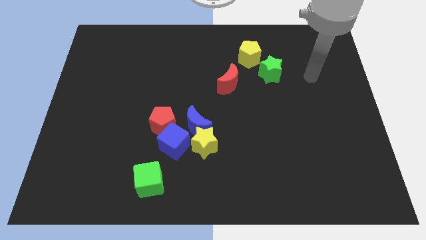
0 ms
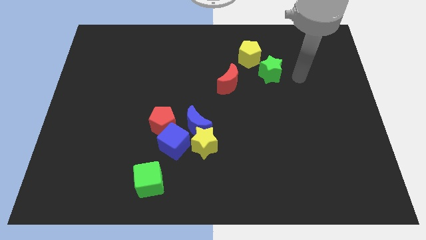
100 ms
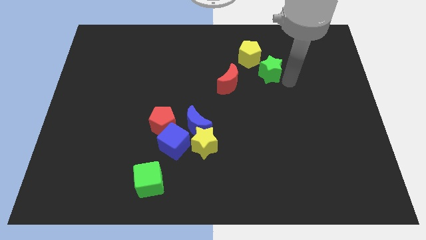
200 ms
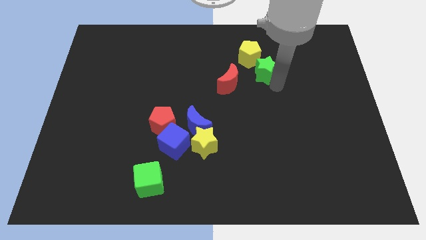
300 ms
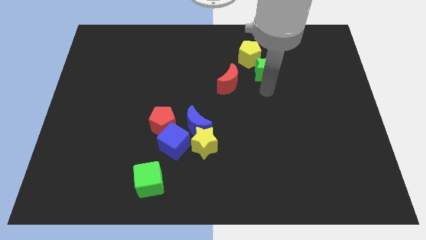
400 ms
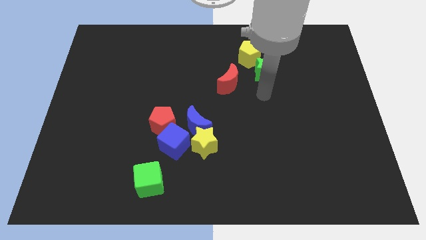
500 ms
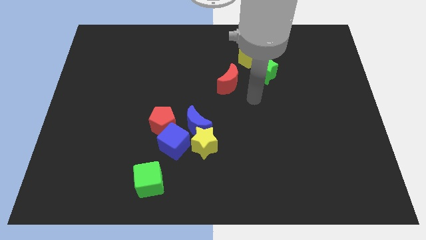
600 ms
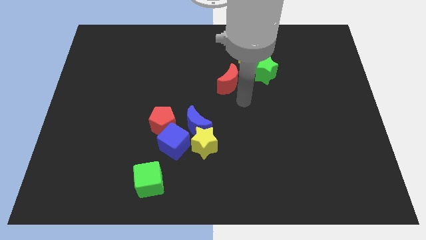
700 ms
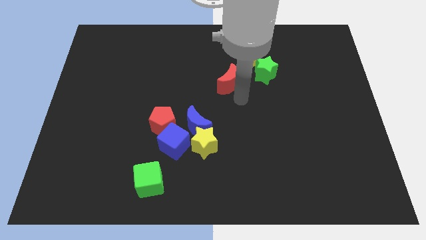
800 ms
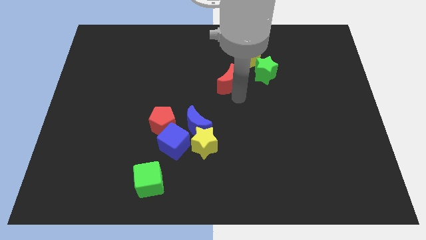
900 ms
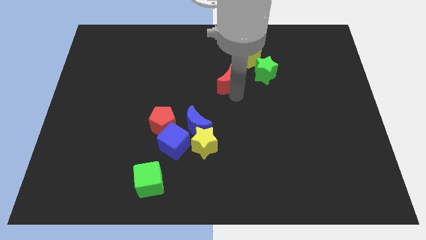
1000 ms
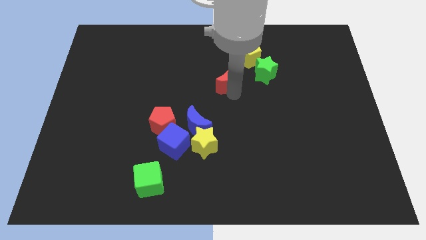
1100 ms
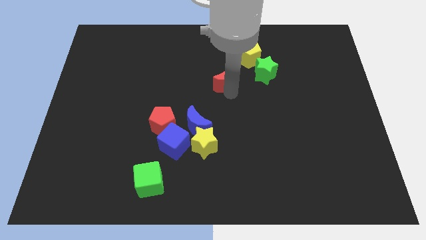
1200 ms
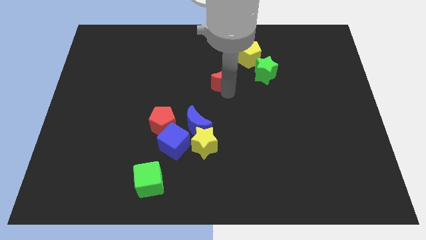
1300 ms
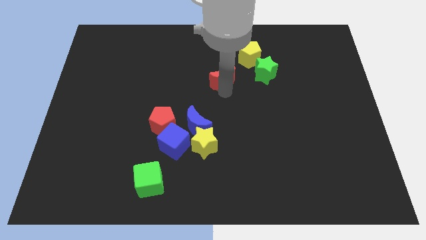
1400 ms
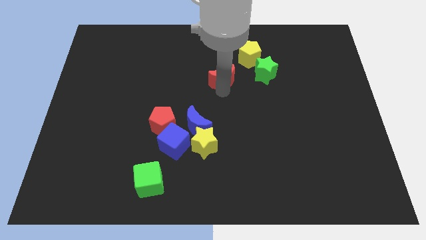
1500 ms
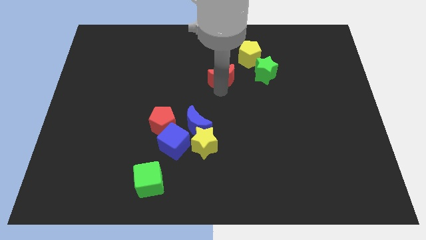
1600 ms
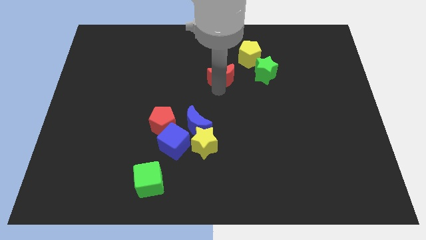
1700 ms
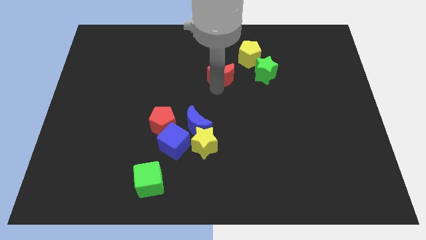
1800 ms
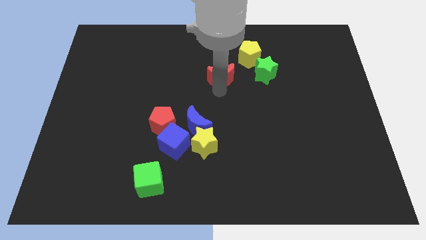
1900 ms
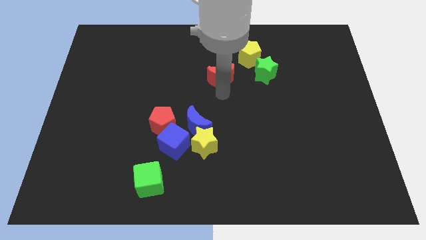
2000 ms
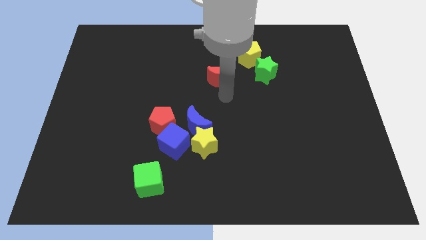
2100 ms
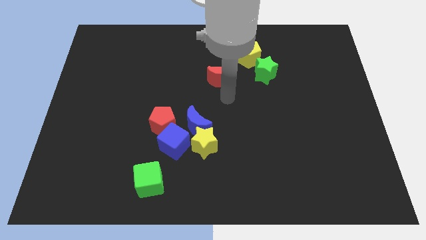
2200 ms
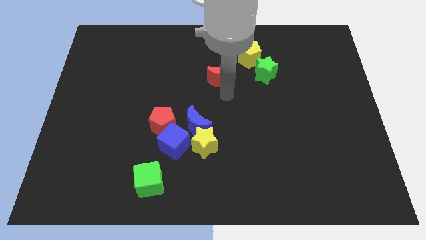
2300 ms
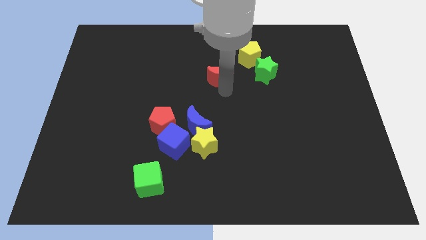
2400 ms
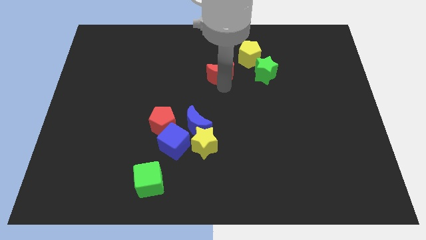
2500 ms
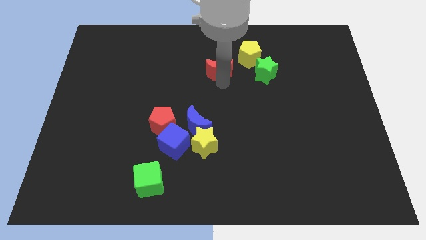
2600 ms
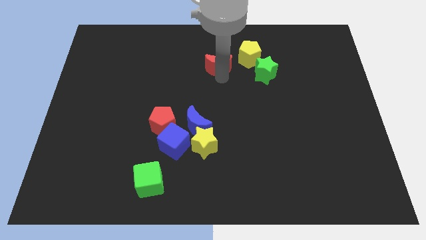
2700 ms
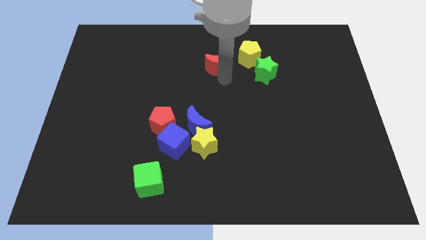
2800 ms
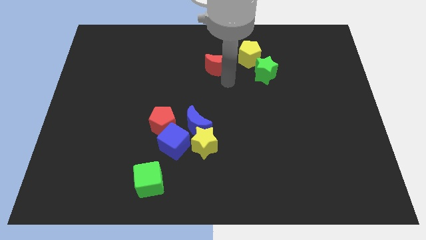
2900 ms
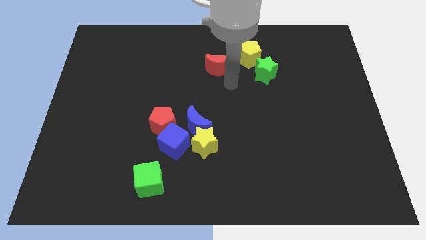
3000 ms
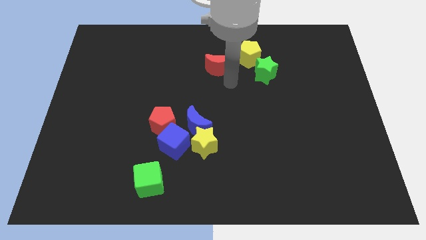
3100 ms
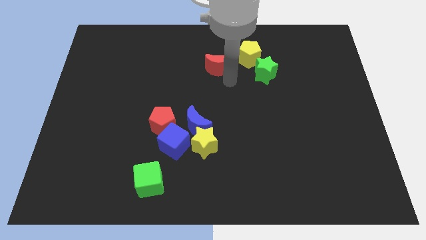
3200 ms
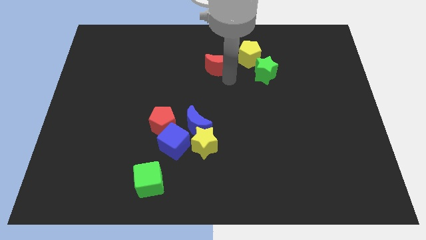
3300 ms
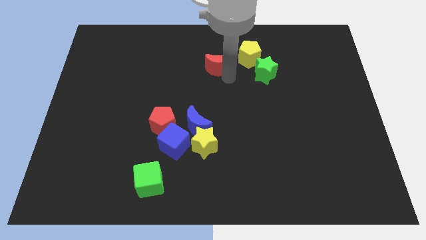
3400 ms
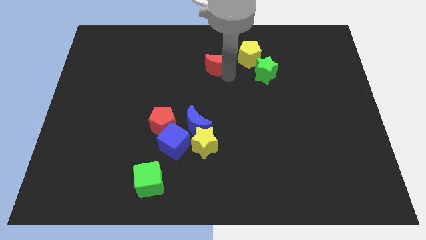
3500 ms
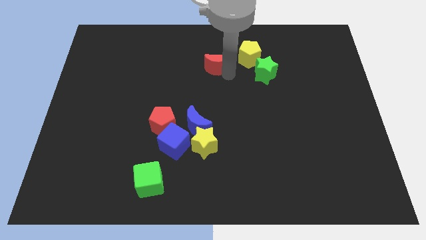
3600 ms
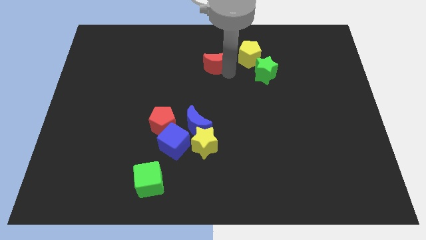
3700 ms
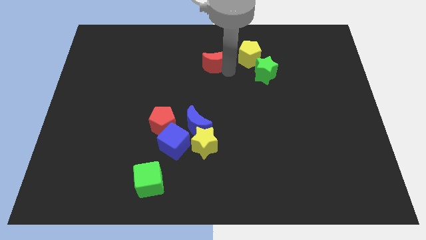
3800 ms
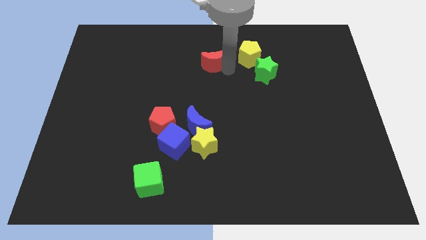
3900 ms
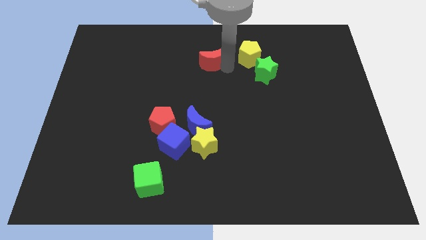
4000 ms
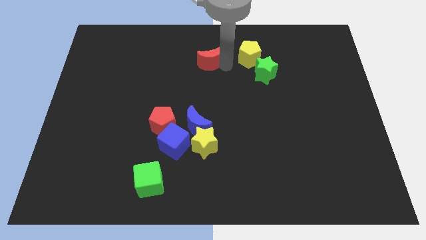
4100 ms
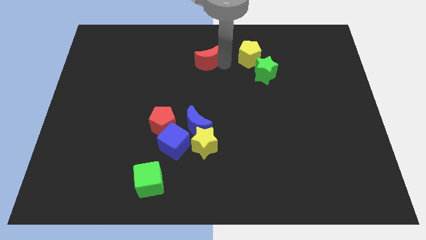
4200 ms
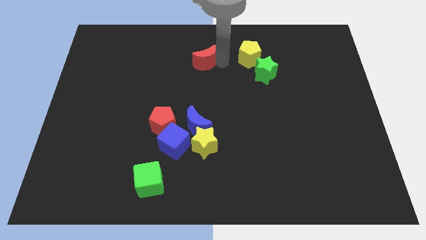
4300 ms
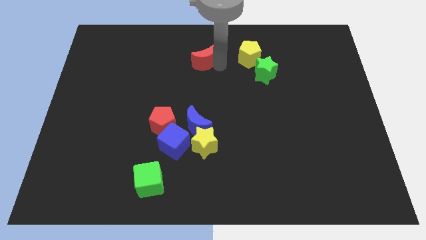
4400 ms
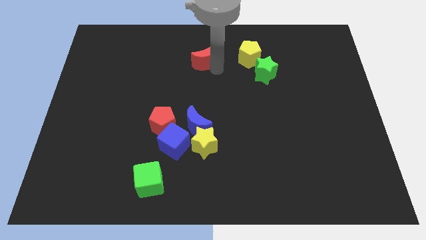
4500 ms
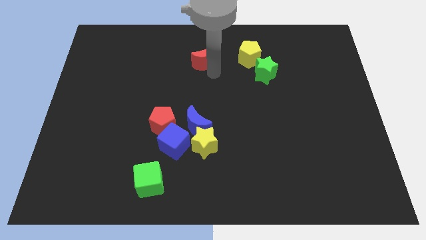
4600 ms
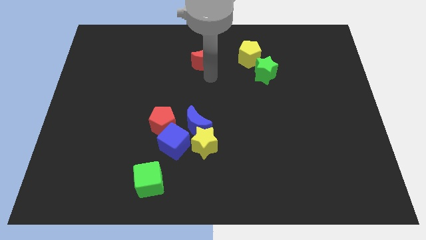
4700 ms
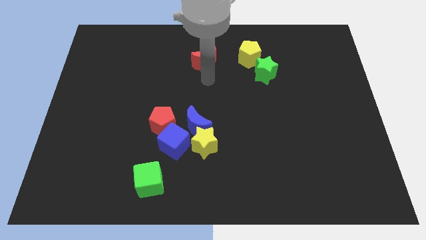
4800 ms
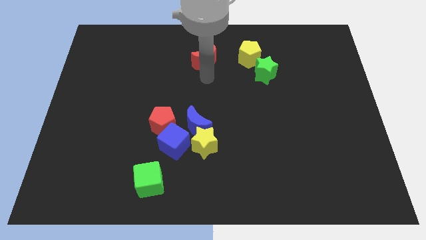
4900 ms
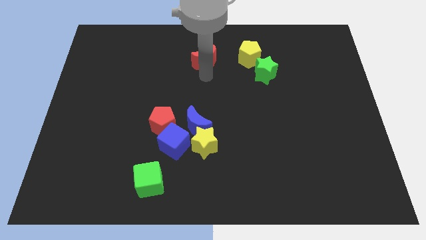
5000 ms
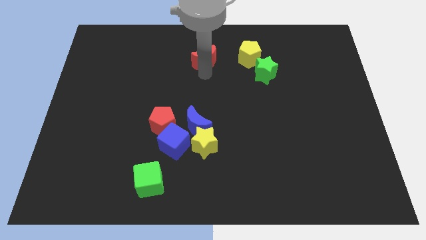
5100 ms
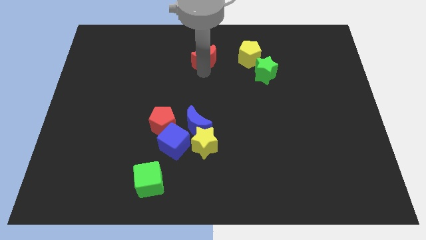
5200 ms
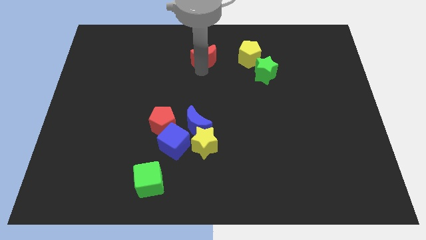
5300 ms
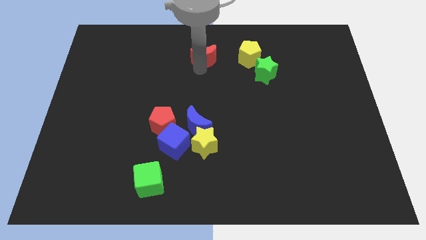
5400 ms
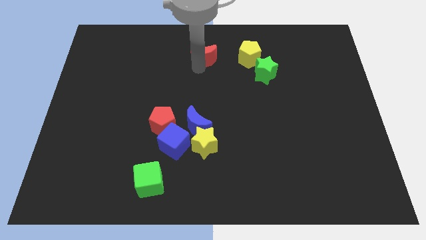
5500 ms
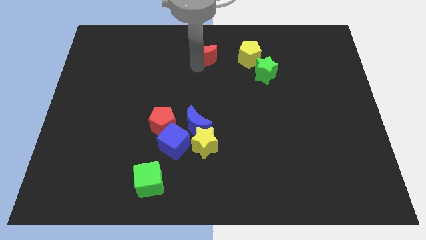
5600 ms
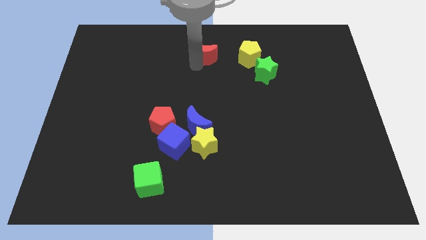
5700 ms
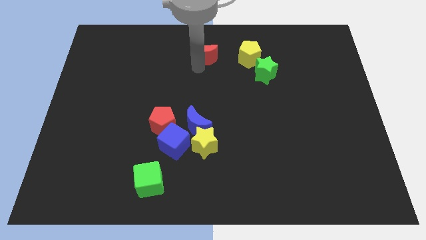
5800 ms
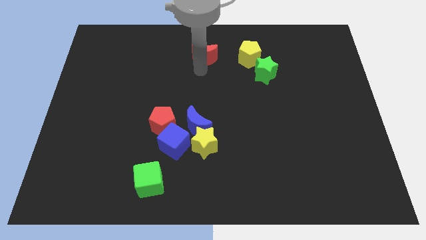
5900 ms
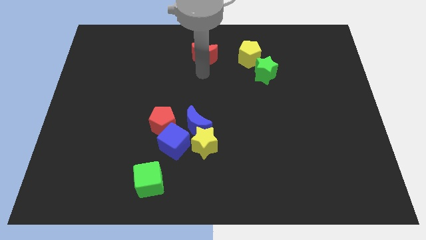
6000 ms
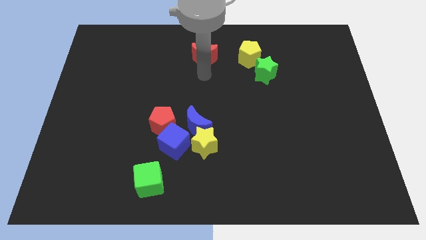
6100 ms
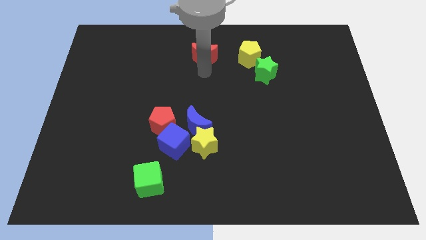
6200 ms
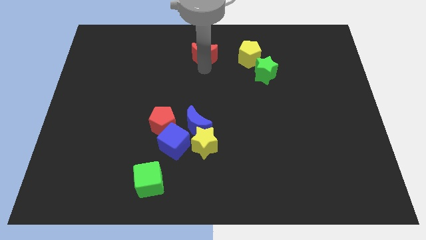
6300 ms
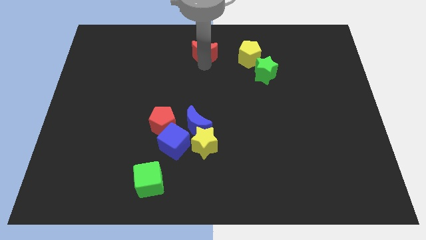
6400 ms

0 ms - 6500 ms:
slide the red moon to the top
